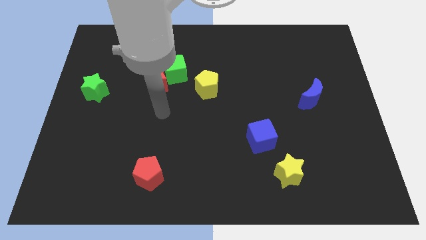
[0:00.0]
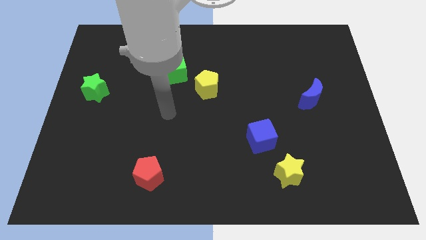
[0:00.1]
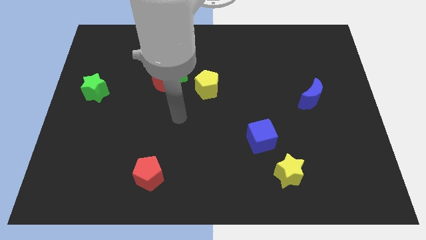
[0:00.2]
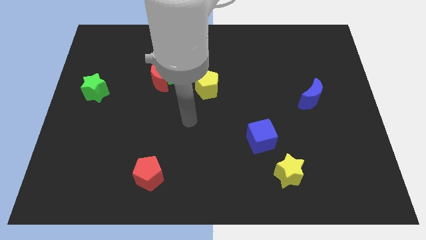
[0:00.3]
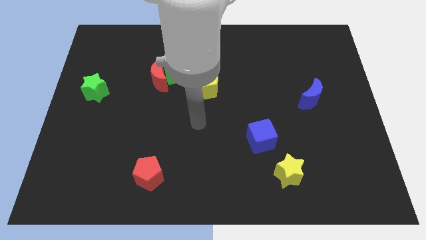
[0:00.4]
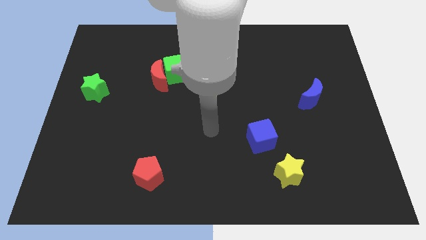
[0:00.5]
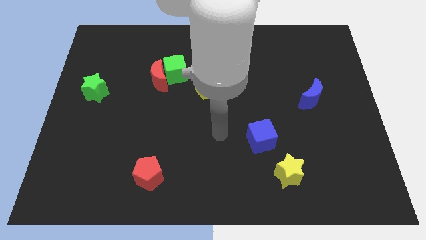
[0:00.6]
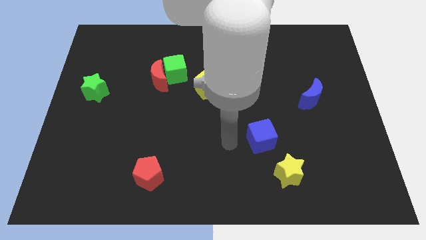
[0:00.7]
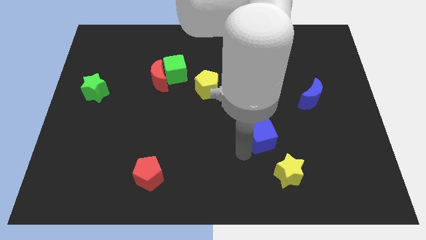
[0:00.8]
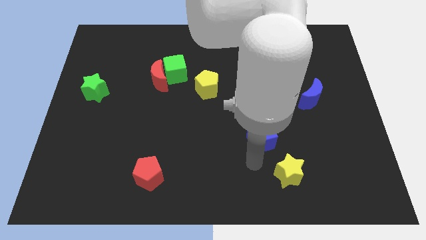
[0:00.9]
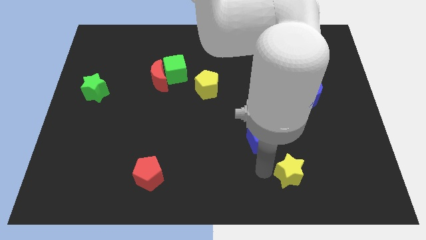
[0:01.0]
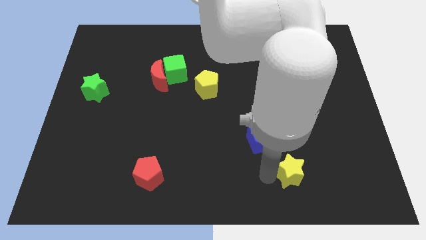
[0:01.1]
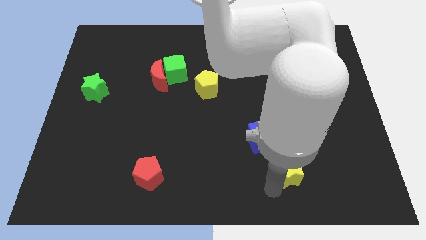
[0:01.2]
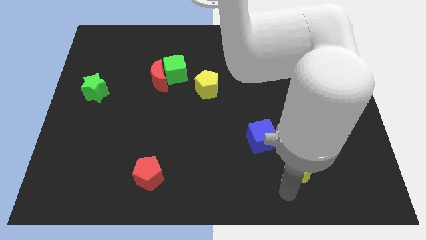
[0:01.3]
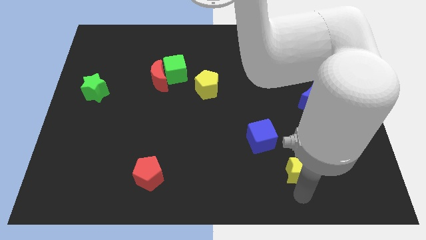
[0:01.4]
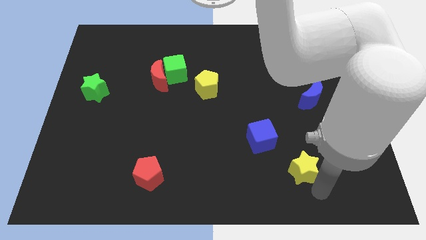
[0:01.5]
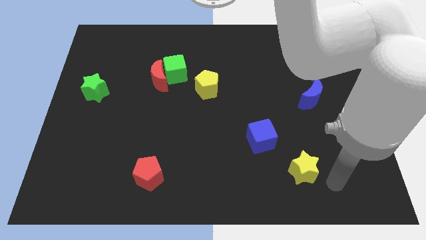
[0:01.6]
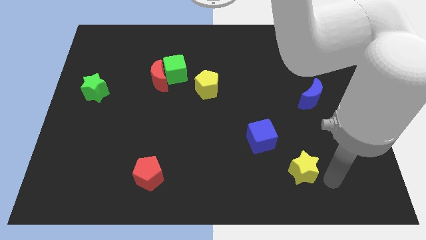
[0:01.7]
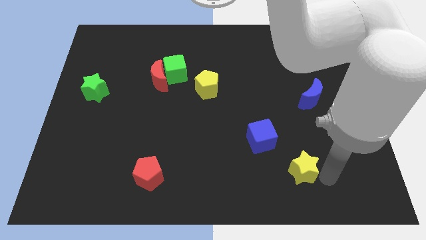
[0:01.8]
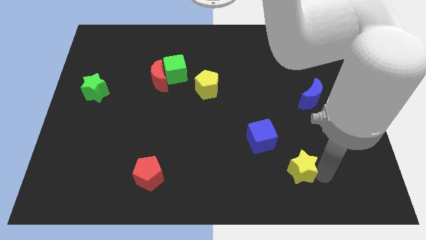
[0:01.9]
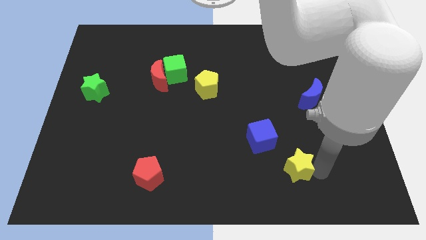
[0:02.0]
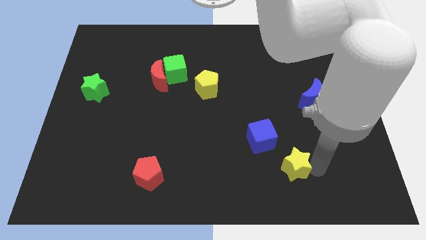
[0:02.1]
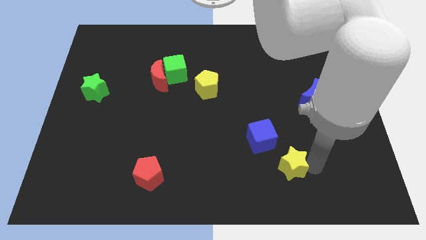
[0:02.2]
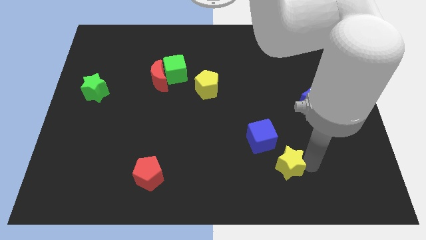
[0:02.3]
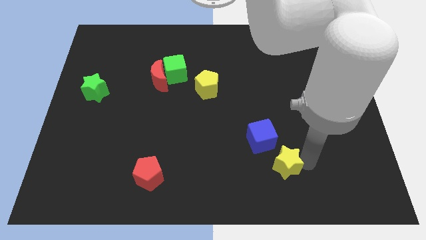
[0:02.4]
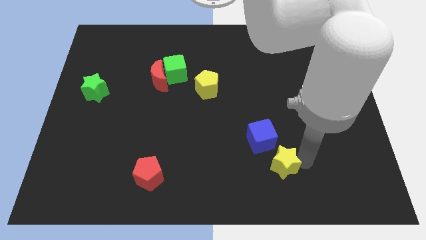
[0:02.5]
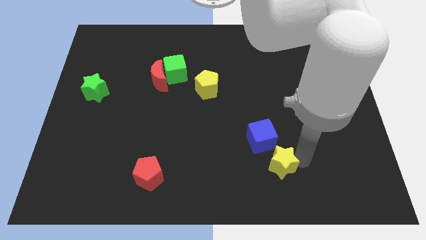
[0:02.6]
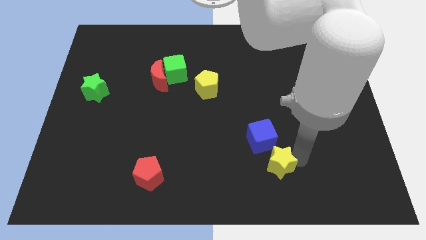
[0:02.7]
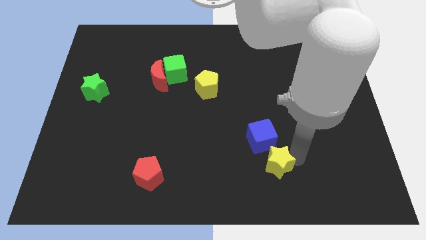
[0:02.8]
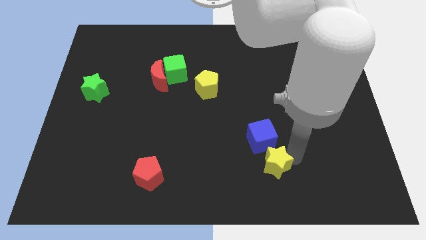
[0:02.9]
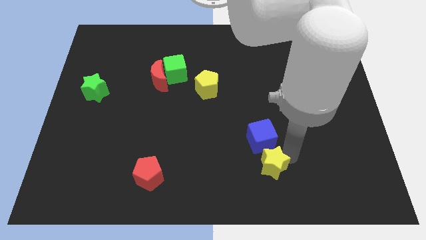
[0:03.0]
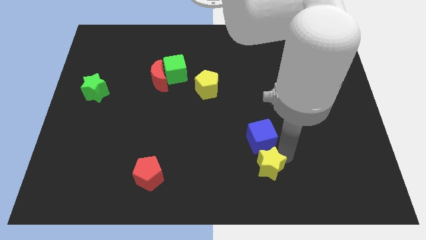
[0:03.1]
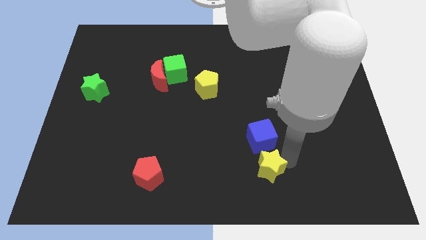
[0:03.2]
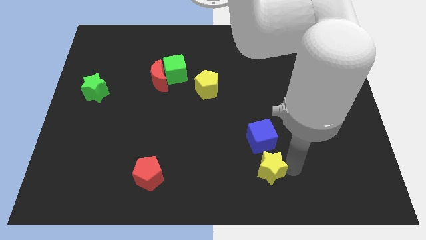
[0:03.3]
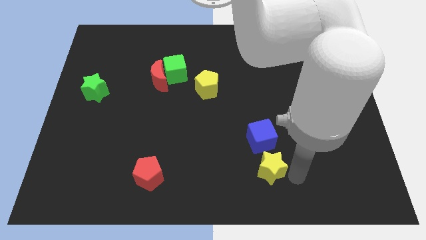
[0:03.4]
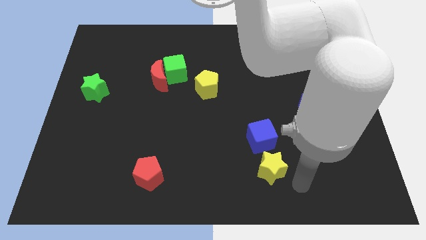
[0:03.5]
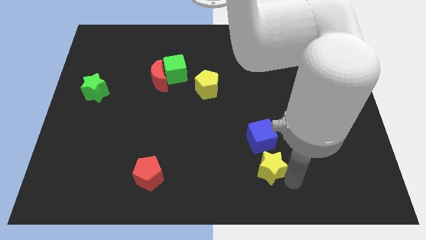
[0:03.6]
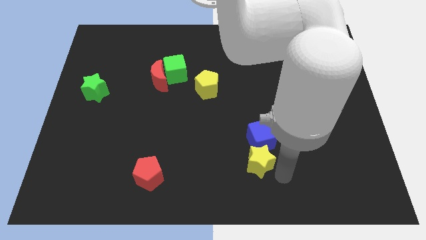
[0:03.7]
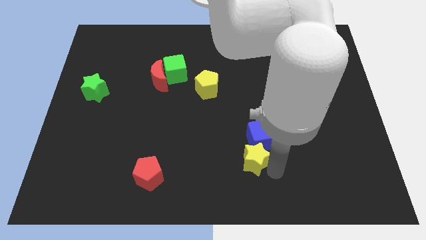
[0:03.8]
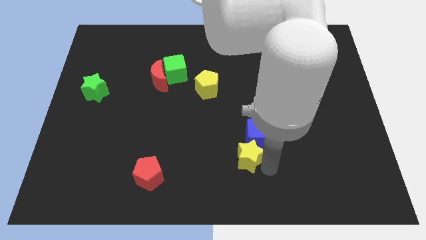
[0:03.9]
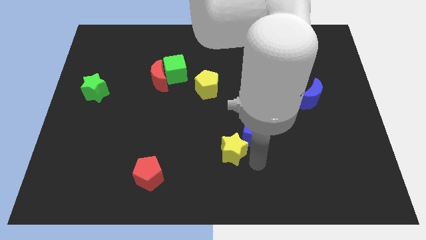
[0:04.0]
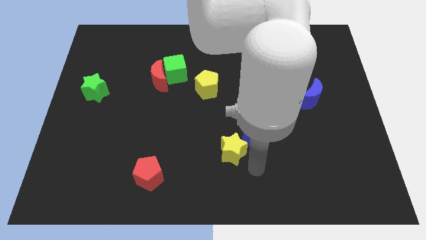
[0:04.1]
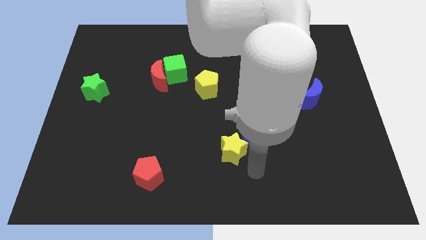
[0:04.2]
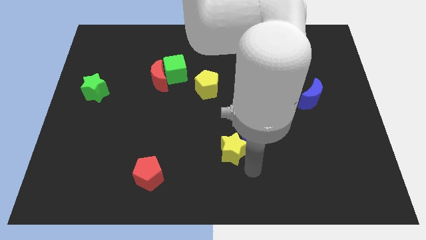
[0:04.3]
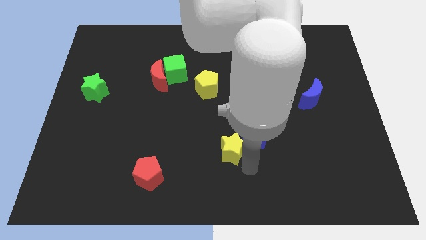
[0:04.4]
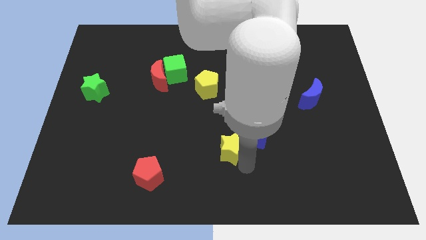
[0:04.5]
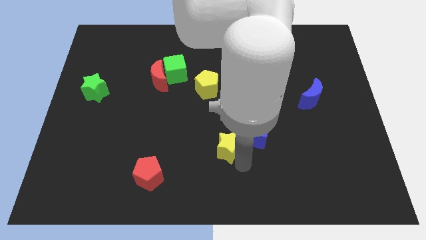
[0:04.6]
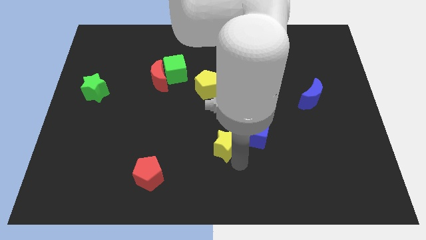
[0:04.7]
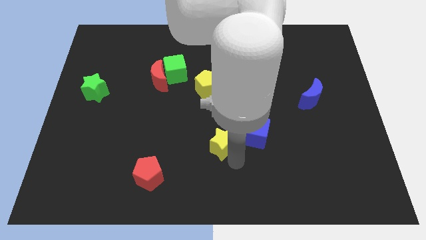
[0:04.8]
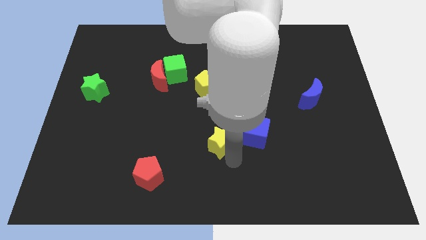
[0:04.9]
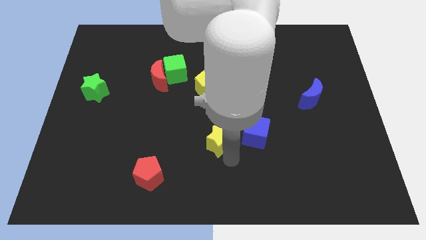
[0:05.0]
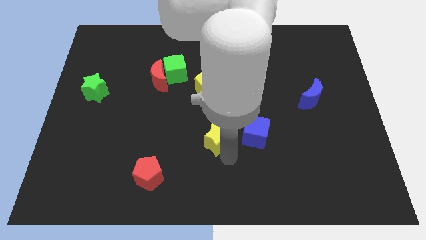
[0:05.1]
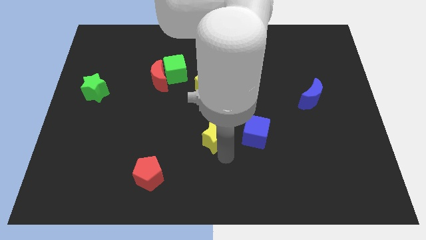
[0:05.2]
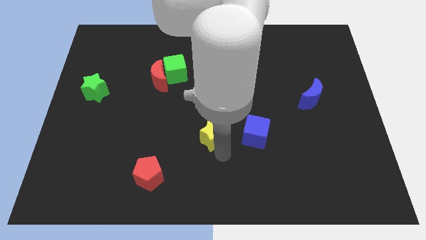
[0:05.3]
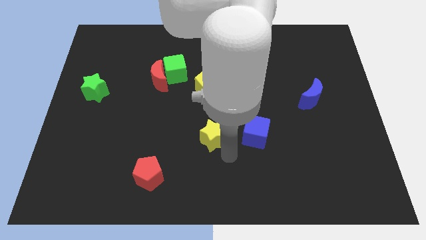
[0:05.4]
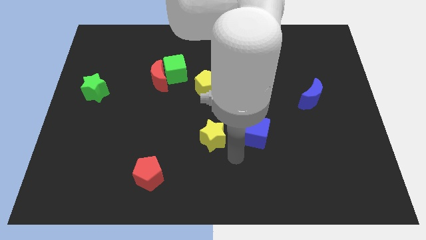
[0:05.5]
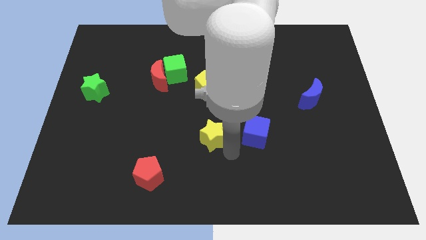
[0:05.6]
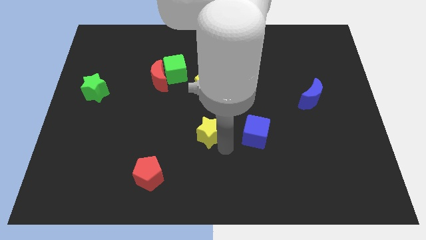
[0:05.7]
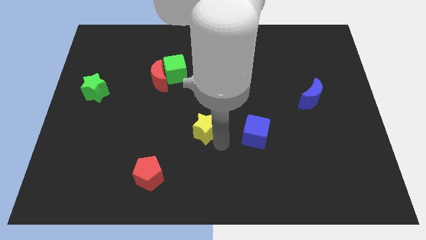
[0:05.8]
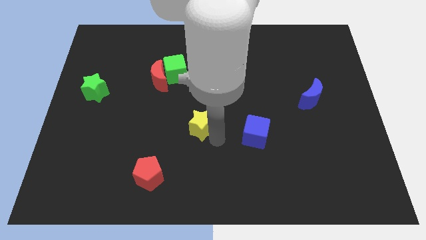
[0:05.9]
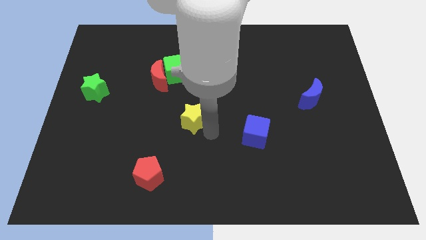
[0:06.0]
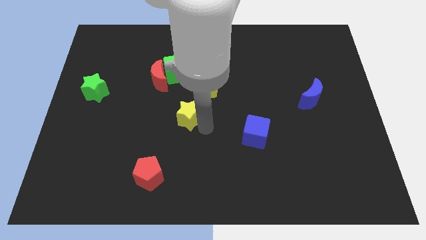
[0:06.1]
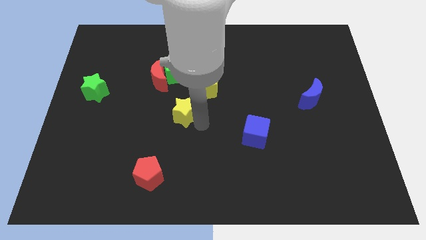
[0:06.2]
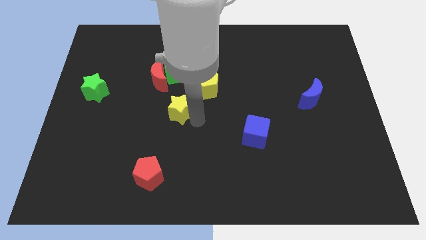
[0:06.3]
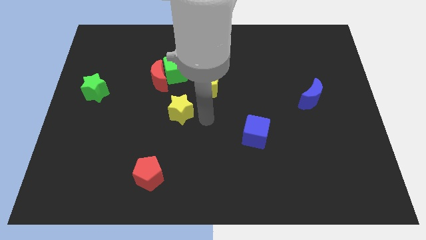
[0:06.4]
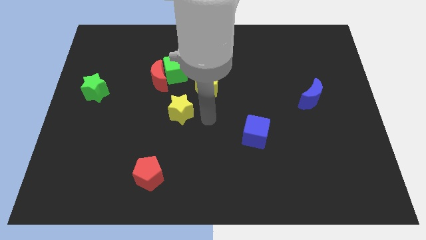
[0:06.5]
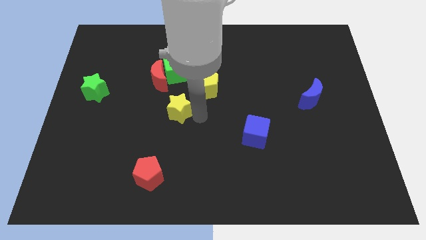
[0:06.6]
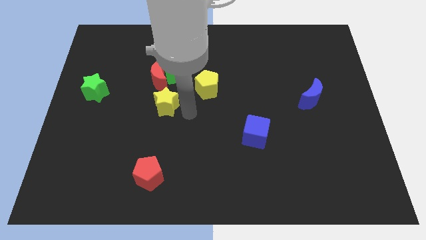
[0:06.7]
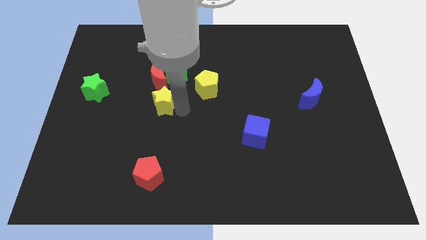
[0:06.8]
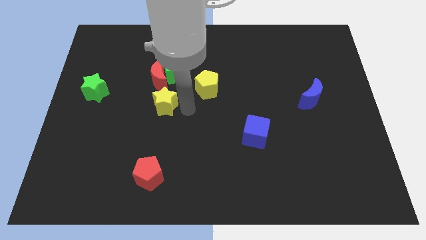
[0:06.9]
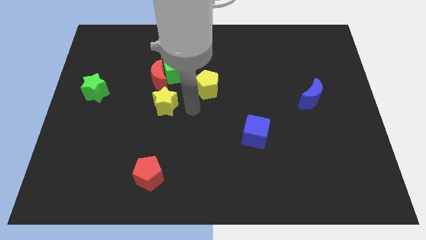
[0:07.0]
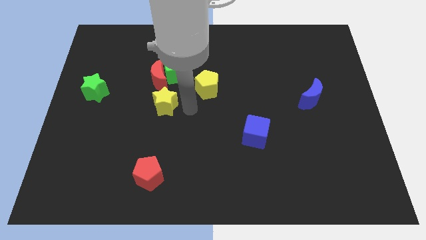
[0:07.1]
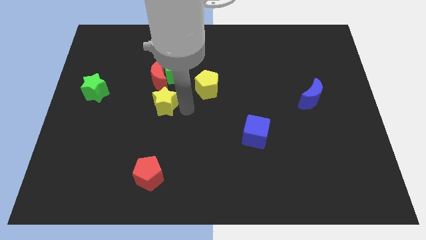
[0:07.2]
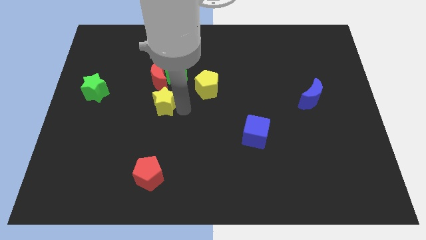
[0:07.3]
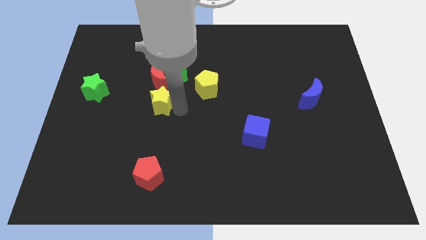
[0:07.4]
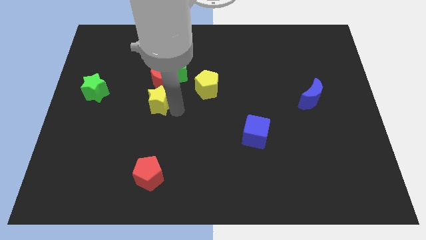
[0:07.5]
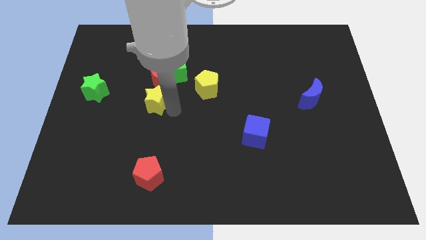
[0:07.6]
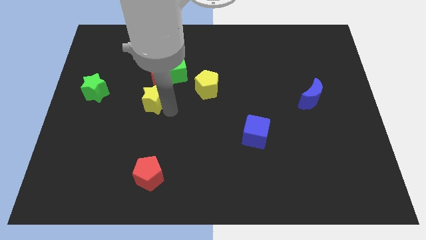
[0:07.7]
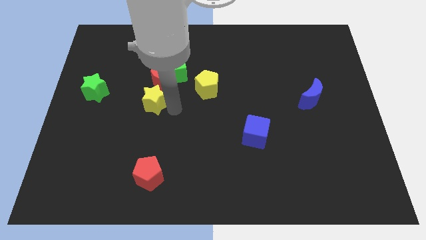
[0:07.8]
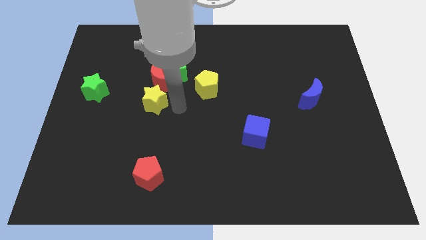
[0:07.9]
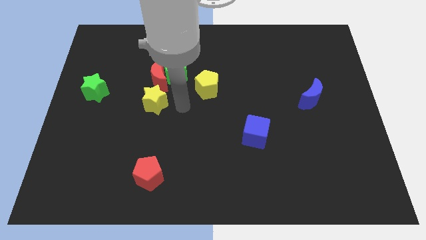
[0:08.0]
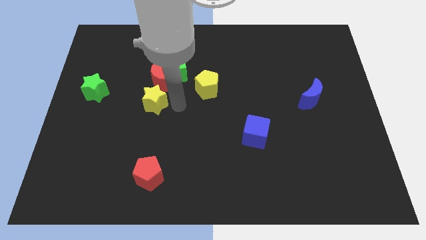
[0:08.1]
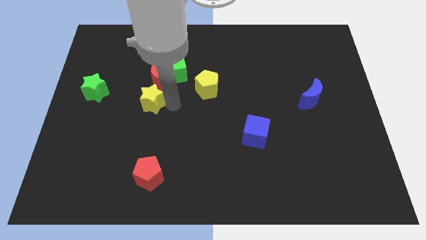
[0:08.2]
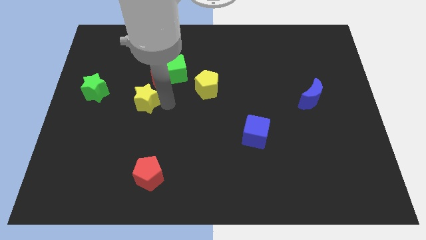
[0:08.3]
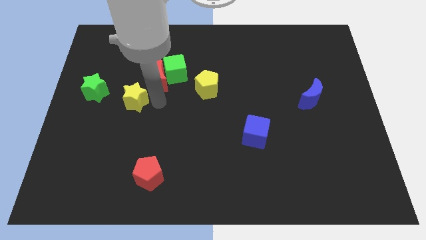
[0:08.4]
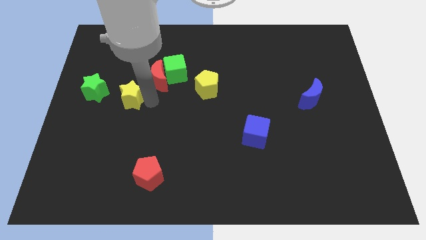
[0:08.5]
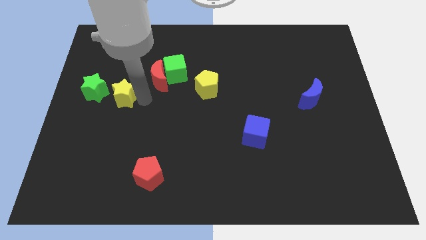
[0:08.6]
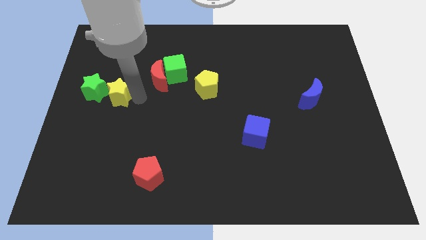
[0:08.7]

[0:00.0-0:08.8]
slide the yellow star next to the green star
